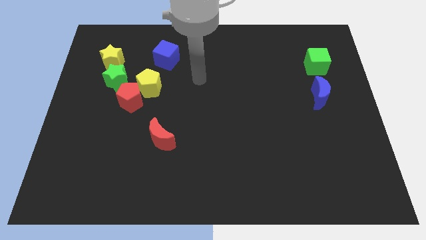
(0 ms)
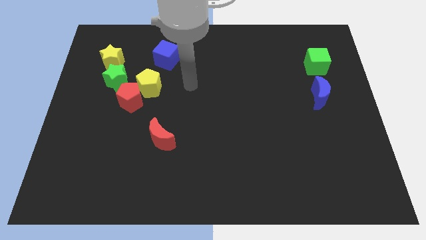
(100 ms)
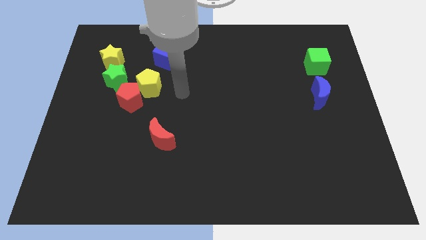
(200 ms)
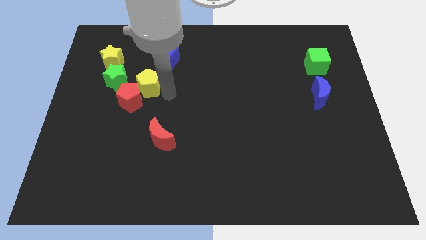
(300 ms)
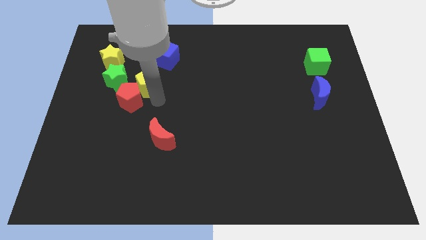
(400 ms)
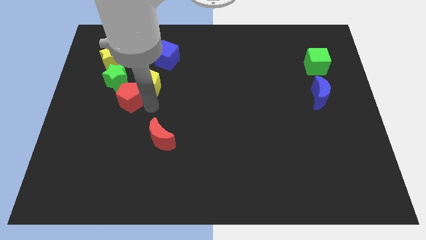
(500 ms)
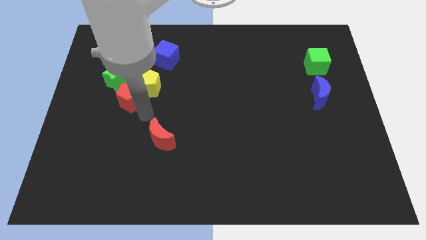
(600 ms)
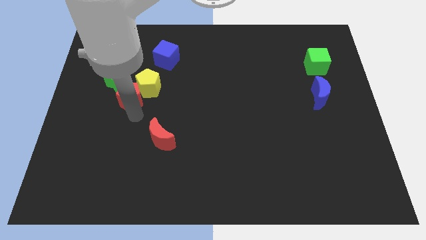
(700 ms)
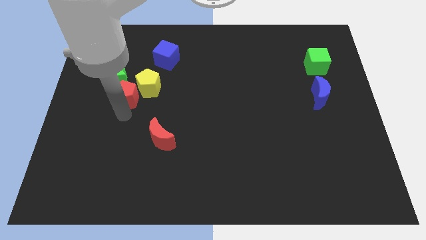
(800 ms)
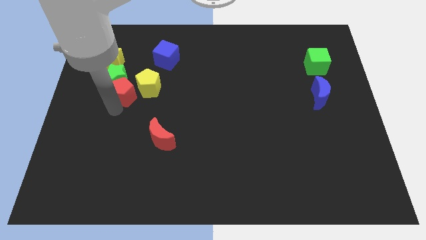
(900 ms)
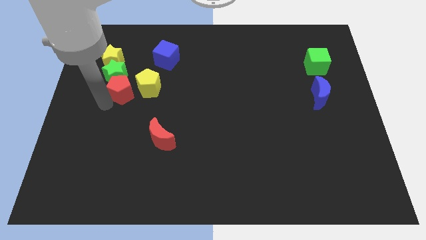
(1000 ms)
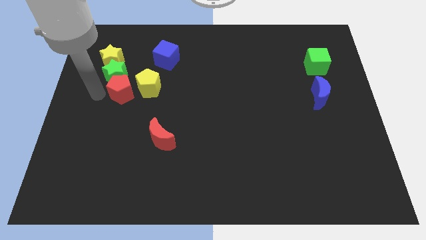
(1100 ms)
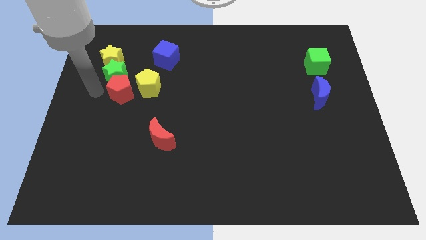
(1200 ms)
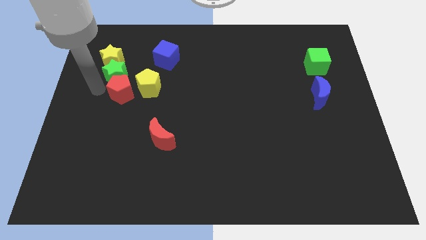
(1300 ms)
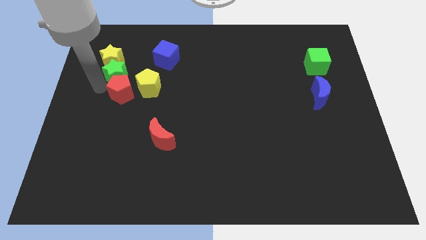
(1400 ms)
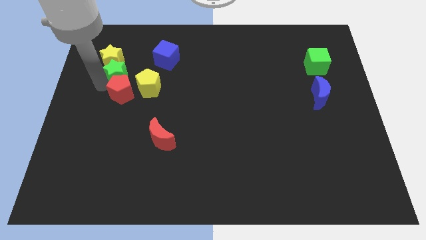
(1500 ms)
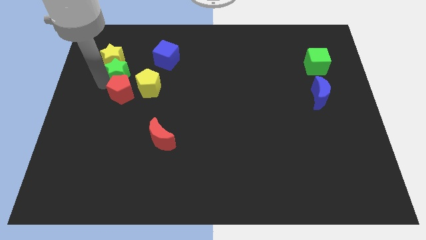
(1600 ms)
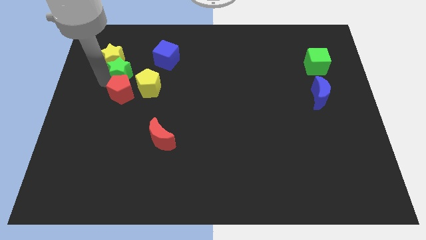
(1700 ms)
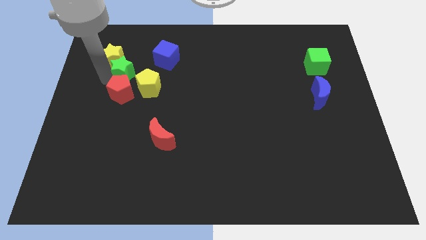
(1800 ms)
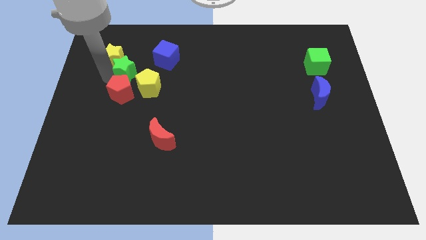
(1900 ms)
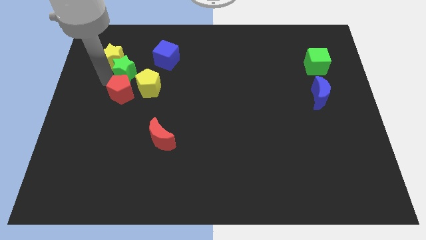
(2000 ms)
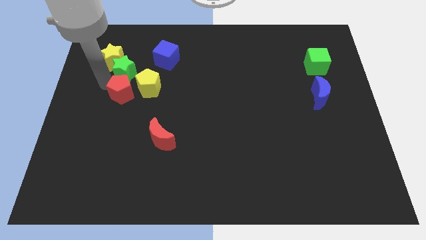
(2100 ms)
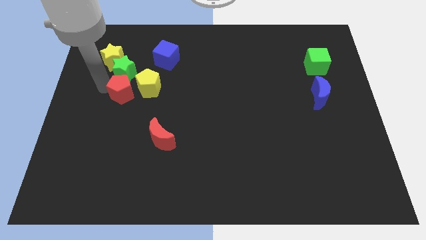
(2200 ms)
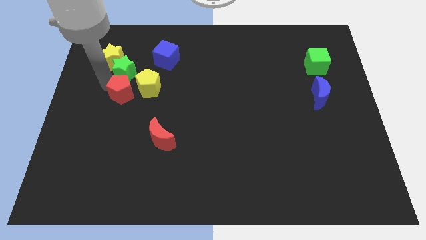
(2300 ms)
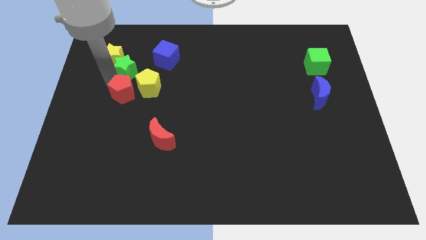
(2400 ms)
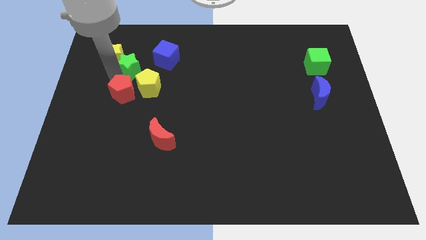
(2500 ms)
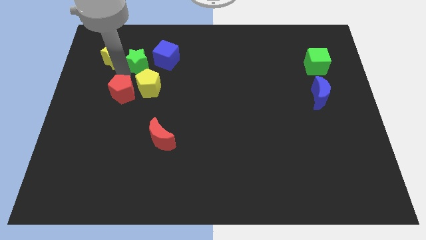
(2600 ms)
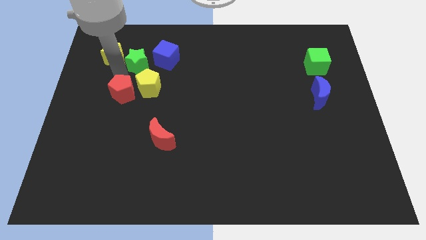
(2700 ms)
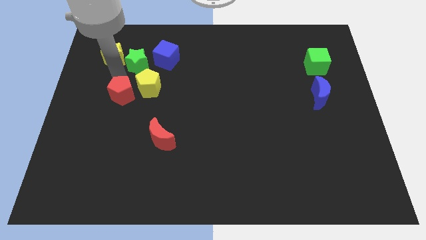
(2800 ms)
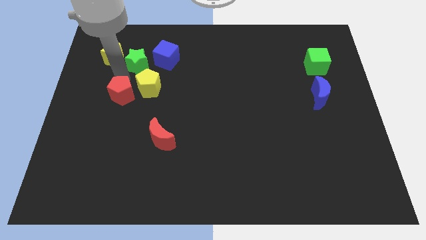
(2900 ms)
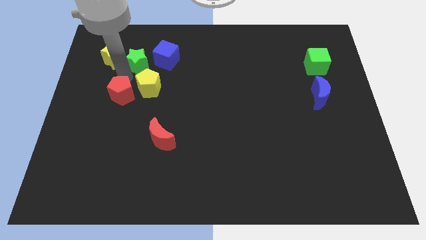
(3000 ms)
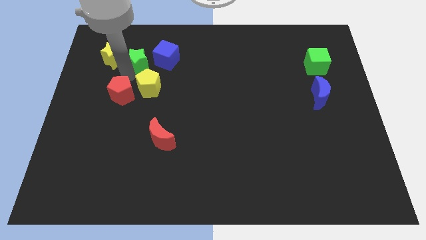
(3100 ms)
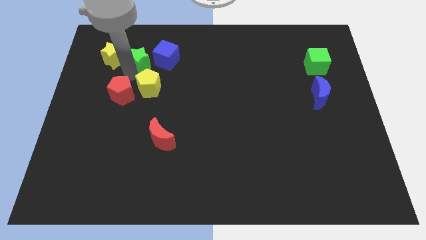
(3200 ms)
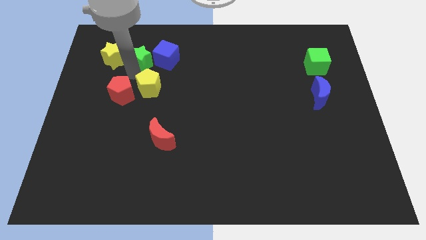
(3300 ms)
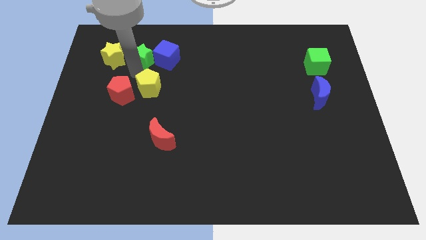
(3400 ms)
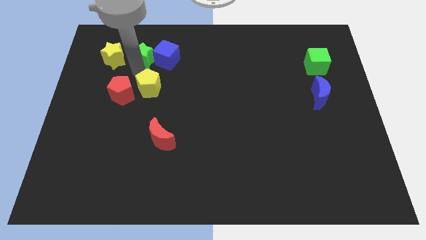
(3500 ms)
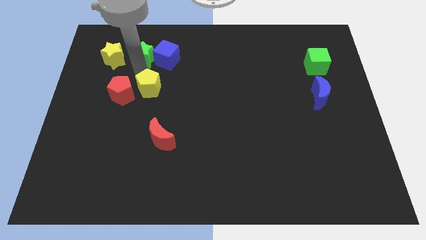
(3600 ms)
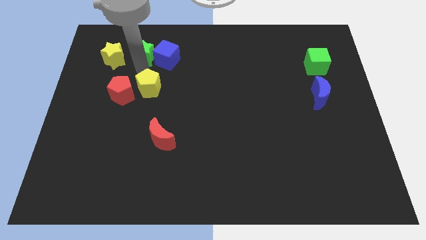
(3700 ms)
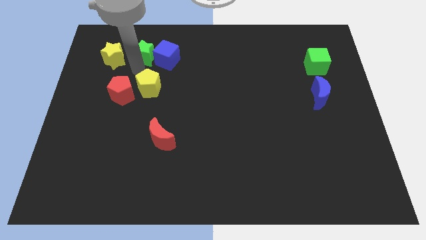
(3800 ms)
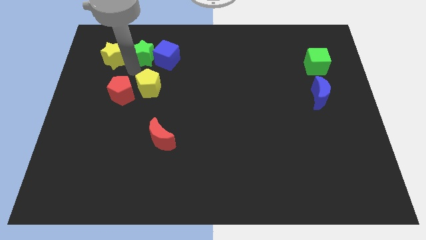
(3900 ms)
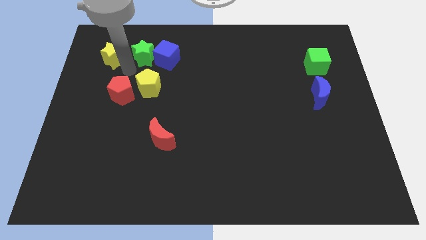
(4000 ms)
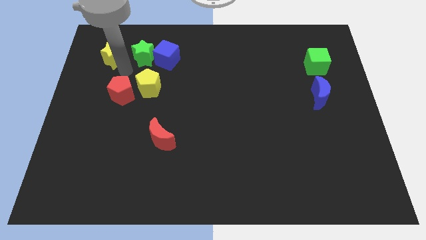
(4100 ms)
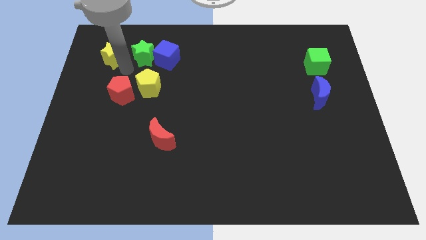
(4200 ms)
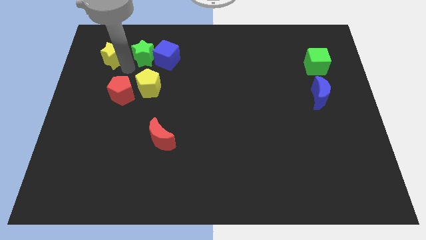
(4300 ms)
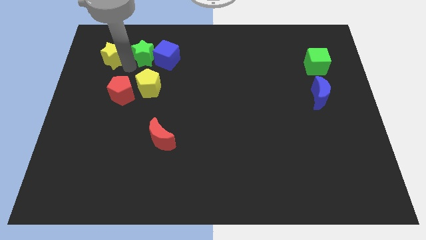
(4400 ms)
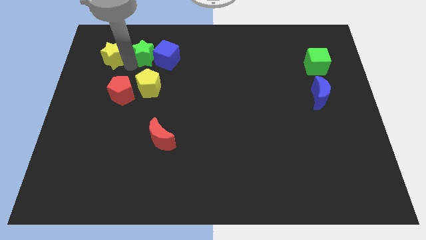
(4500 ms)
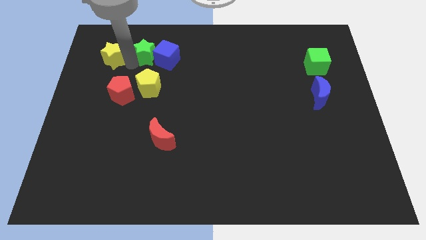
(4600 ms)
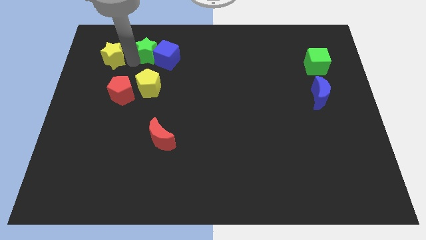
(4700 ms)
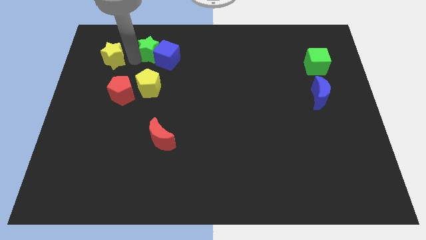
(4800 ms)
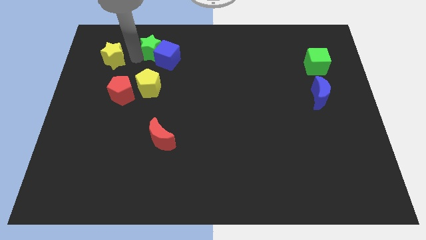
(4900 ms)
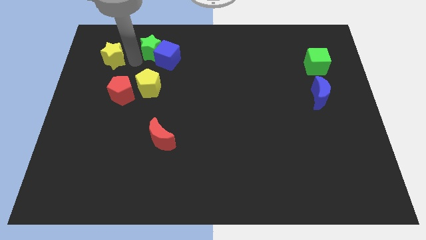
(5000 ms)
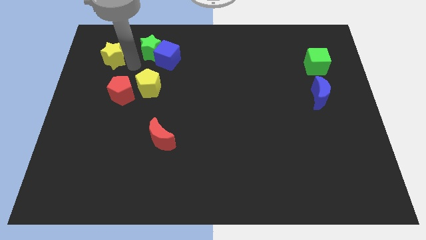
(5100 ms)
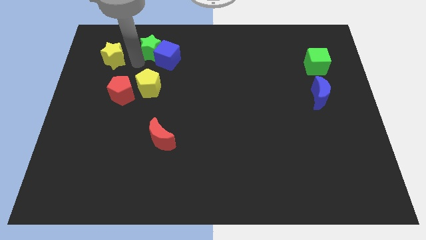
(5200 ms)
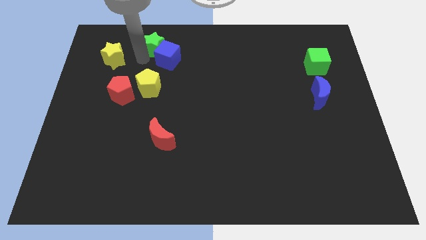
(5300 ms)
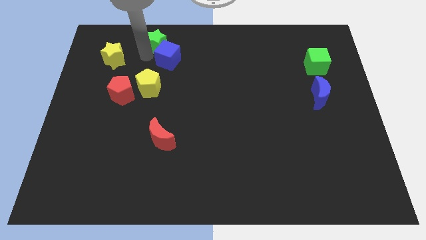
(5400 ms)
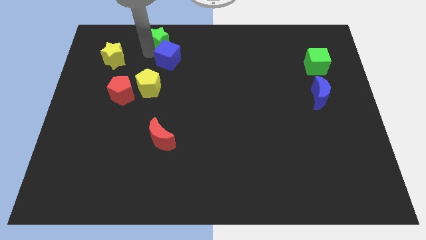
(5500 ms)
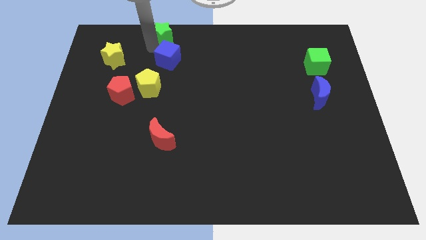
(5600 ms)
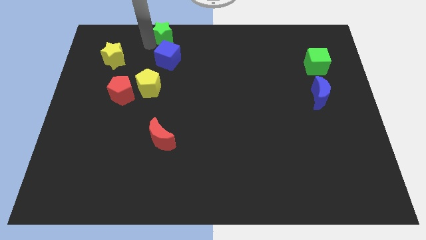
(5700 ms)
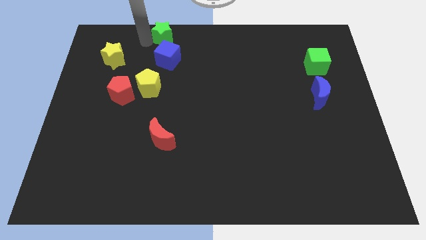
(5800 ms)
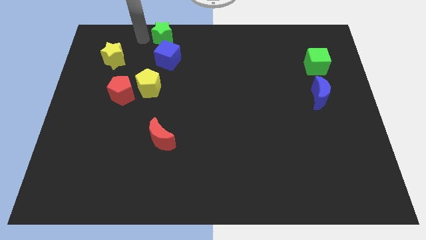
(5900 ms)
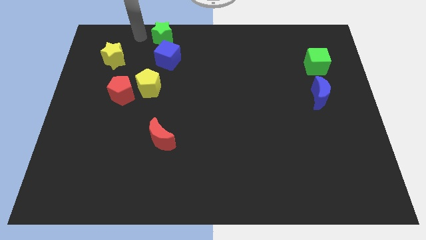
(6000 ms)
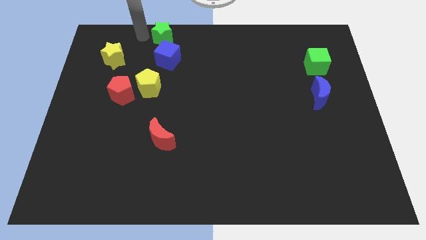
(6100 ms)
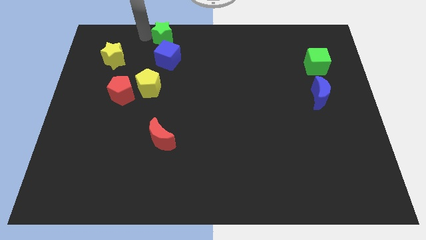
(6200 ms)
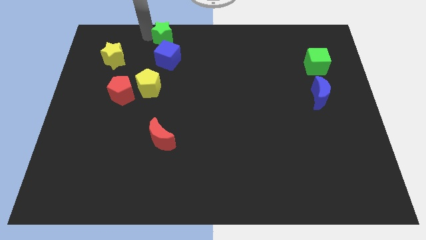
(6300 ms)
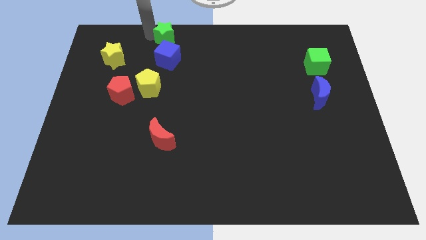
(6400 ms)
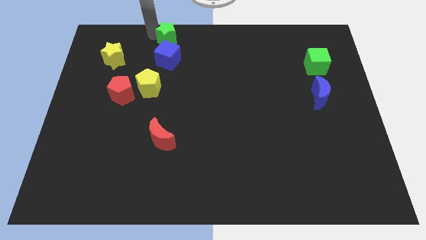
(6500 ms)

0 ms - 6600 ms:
slide the green star to the top side
